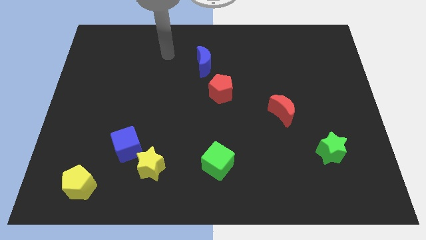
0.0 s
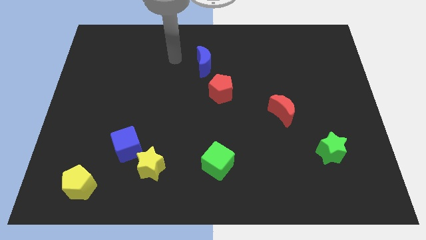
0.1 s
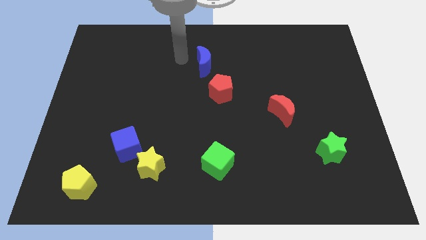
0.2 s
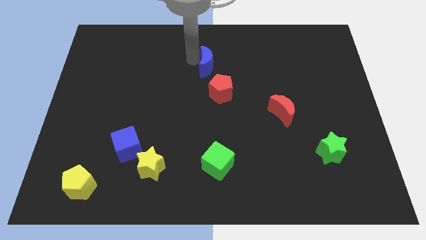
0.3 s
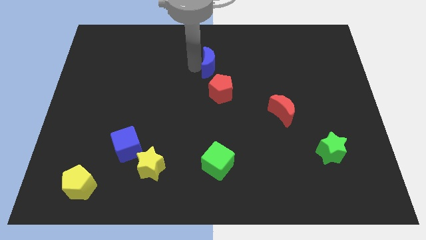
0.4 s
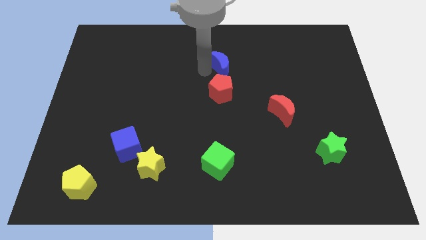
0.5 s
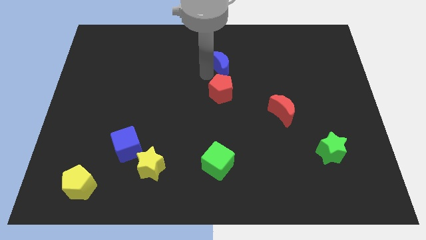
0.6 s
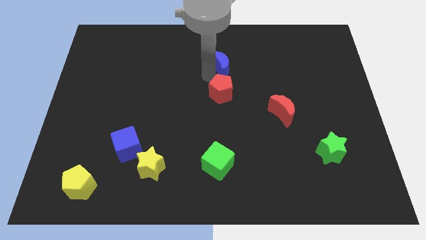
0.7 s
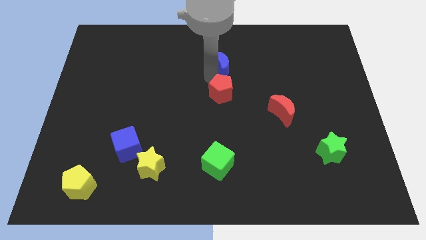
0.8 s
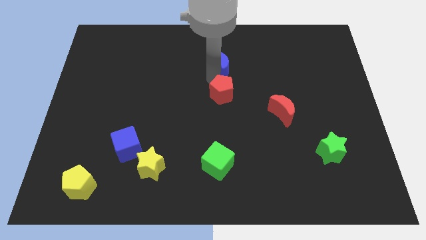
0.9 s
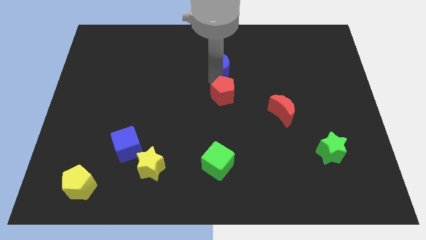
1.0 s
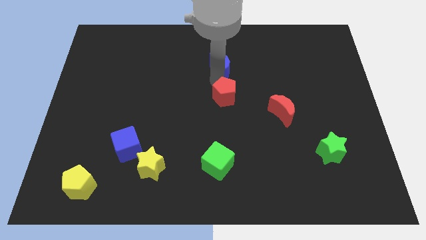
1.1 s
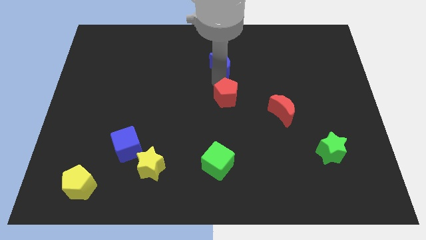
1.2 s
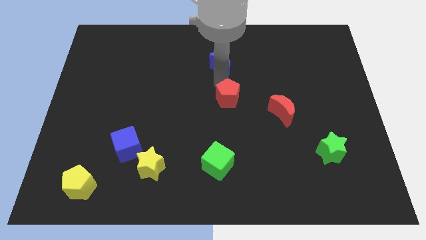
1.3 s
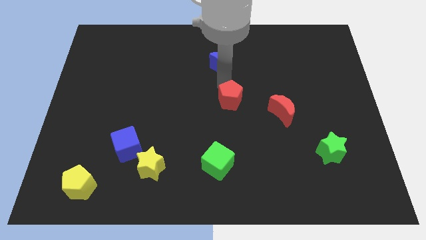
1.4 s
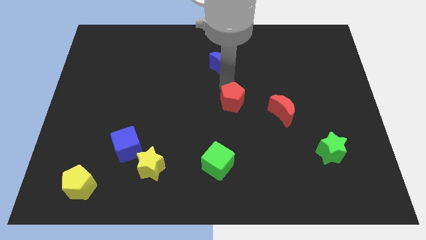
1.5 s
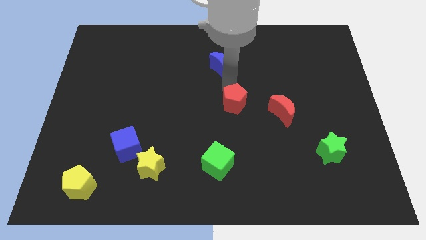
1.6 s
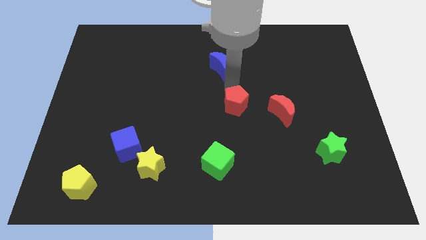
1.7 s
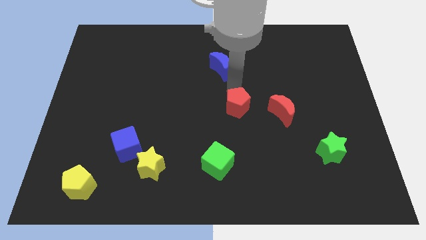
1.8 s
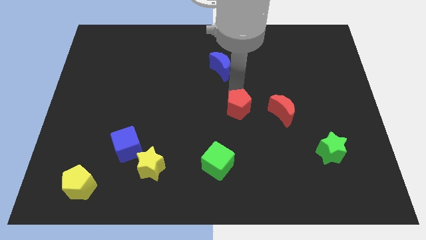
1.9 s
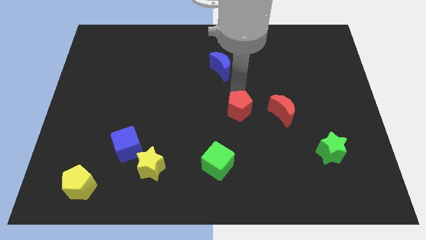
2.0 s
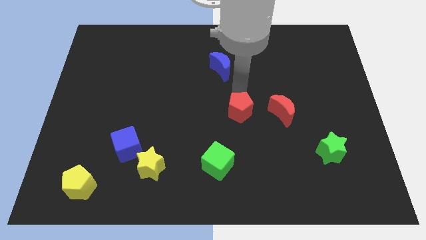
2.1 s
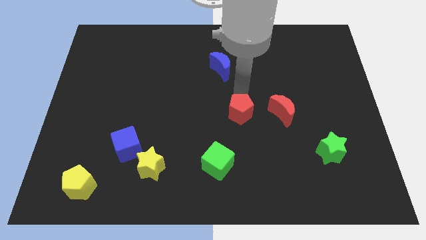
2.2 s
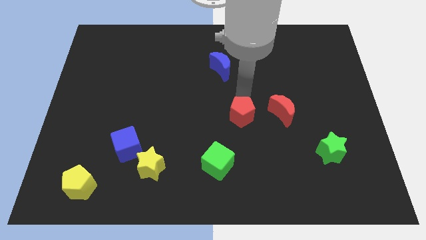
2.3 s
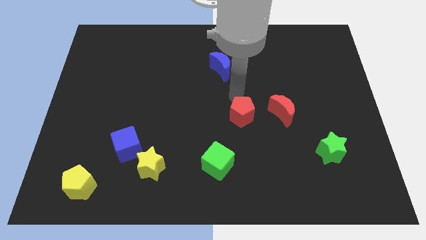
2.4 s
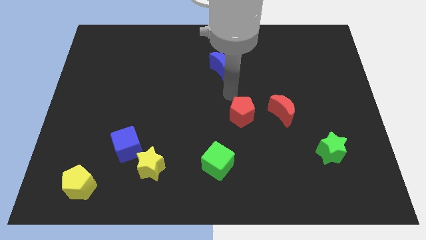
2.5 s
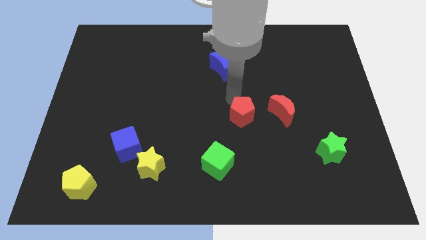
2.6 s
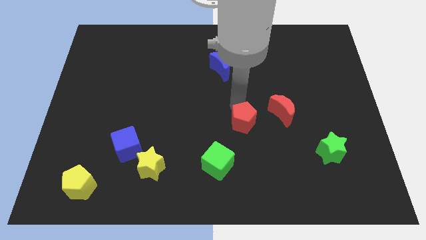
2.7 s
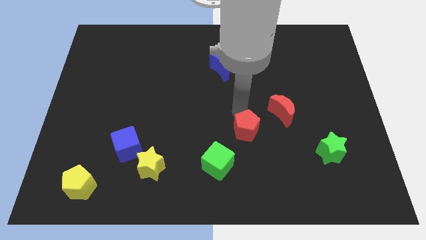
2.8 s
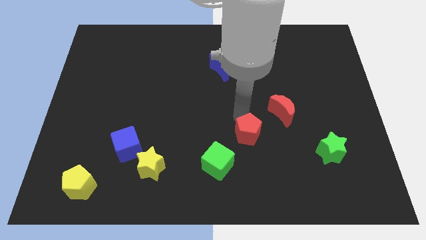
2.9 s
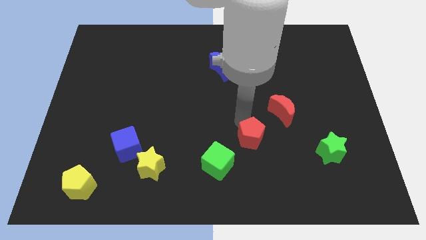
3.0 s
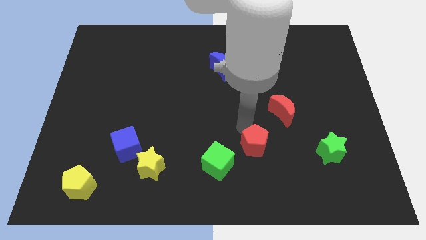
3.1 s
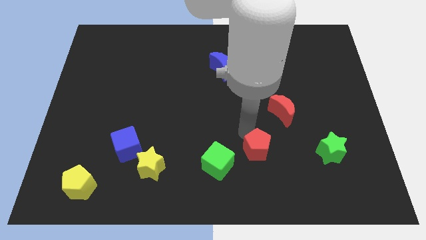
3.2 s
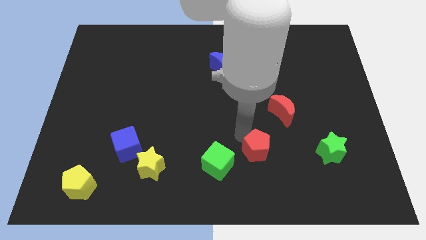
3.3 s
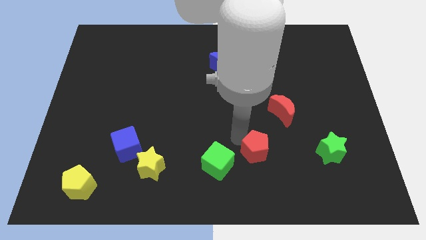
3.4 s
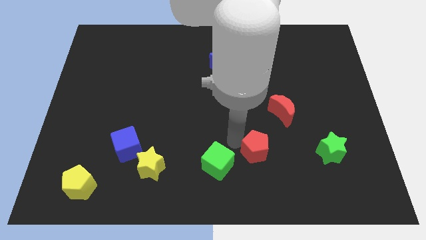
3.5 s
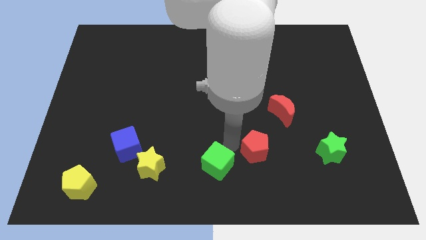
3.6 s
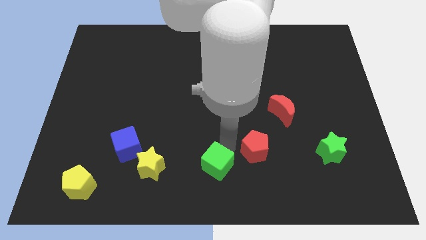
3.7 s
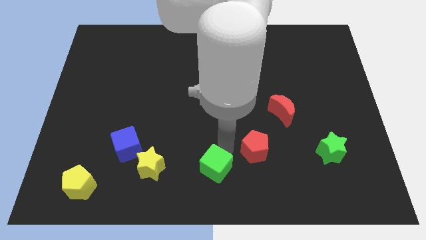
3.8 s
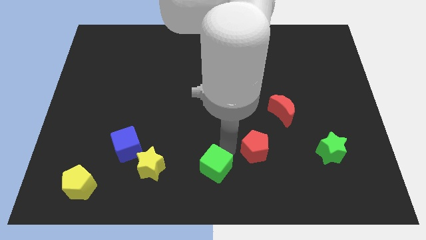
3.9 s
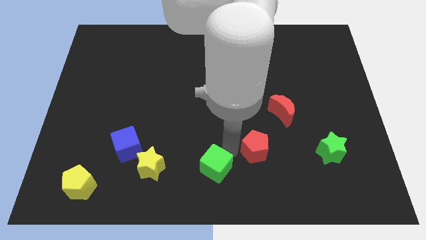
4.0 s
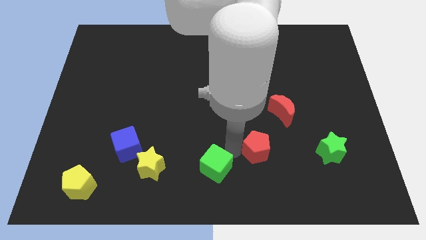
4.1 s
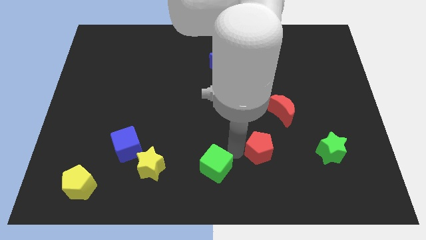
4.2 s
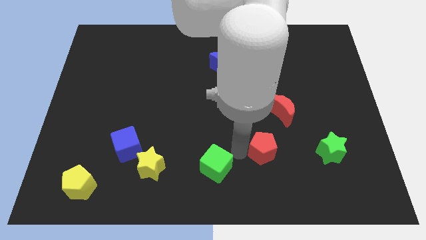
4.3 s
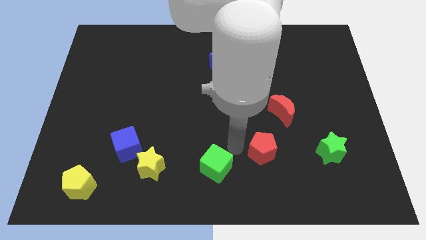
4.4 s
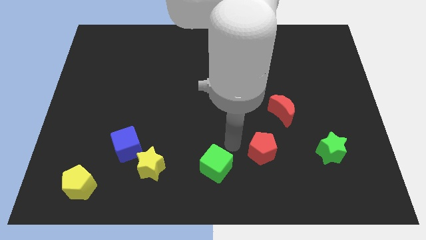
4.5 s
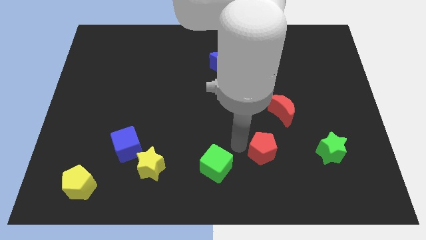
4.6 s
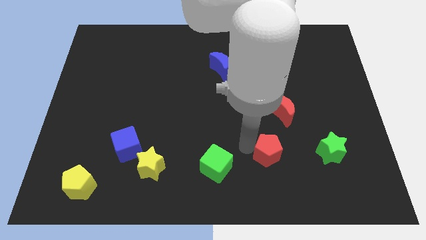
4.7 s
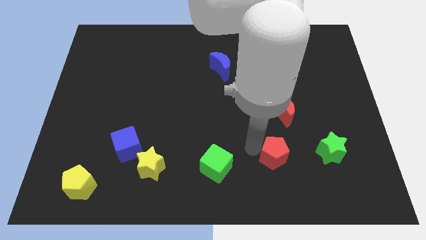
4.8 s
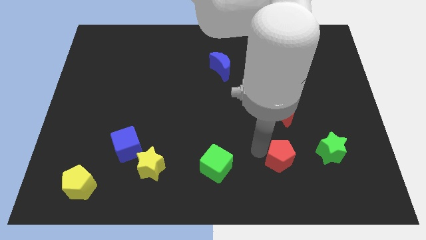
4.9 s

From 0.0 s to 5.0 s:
push the red pentagon down and right

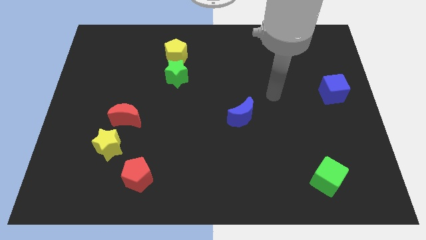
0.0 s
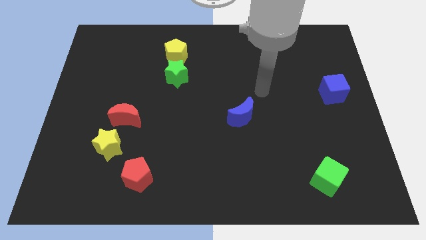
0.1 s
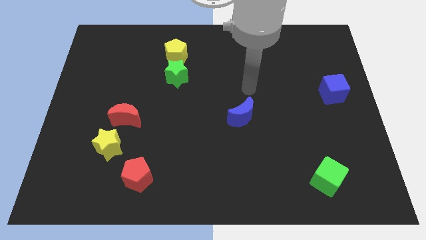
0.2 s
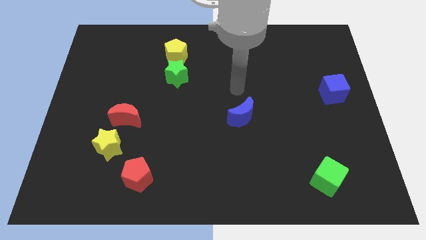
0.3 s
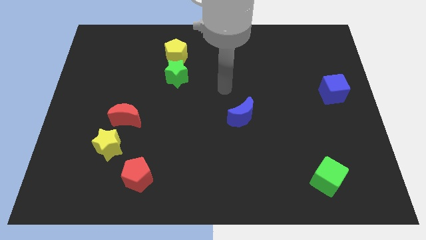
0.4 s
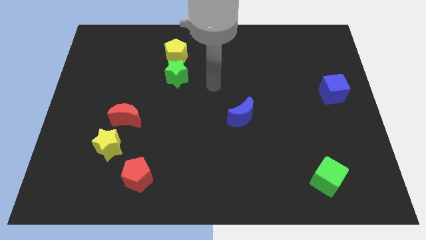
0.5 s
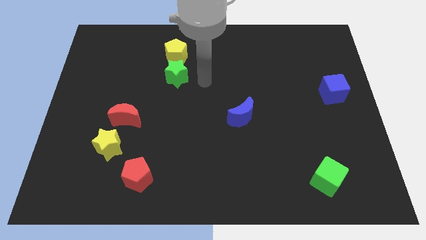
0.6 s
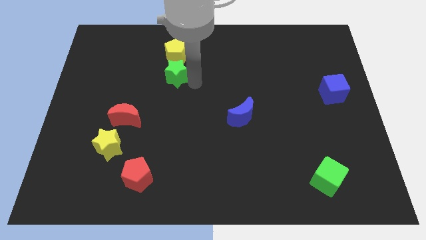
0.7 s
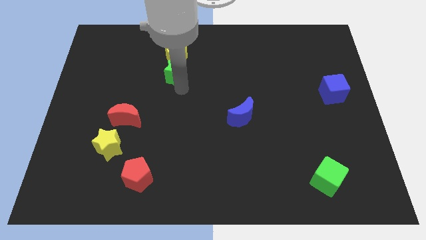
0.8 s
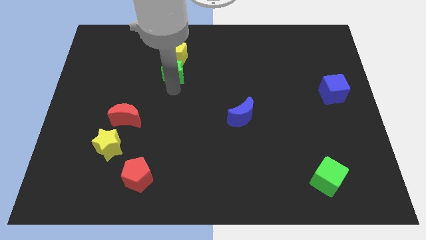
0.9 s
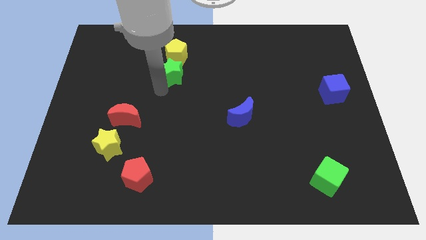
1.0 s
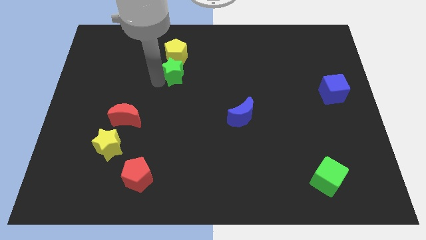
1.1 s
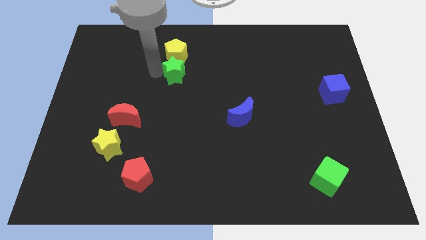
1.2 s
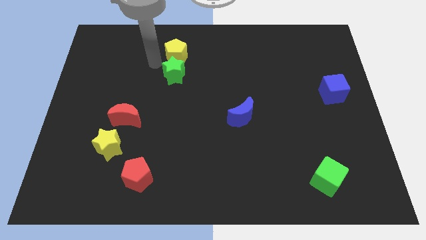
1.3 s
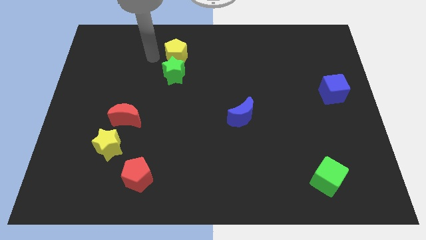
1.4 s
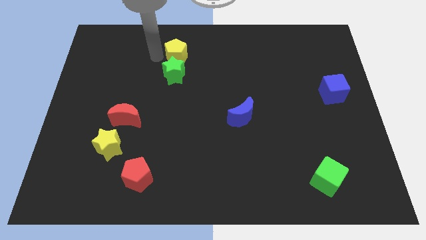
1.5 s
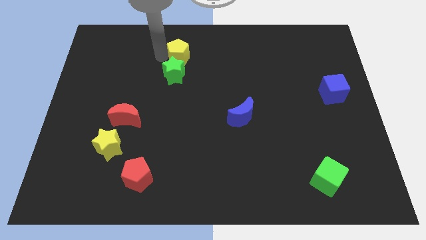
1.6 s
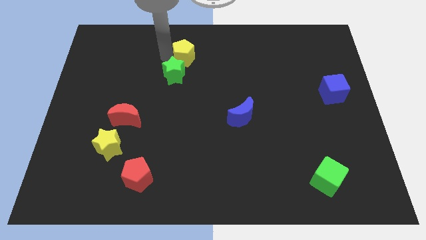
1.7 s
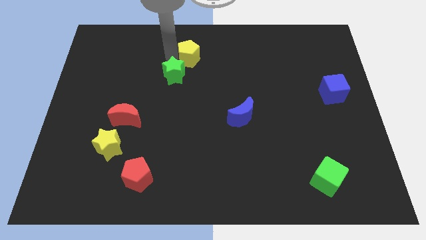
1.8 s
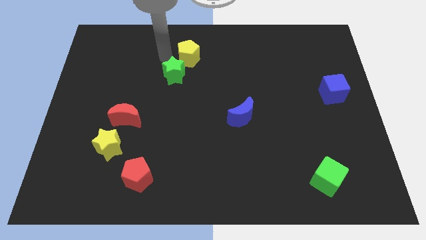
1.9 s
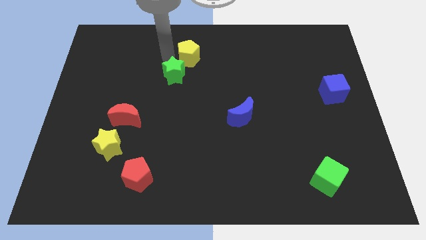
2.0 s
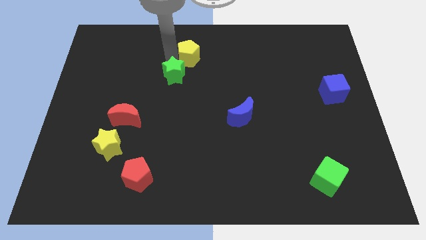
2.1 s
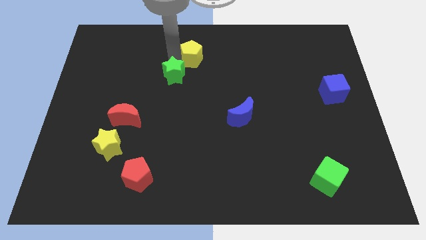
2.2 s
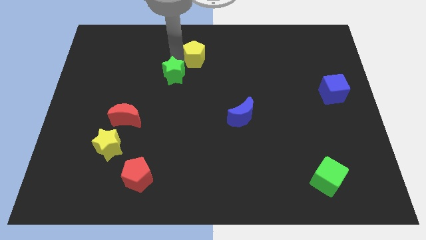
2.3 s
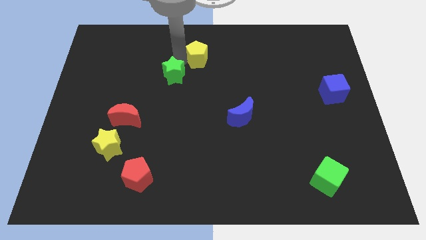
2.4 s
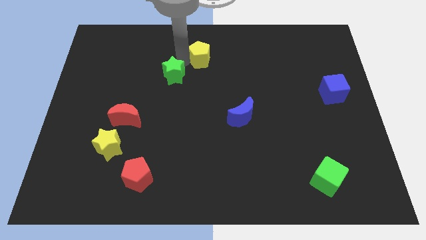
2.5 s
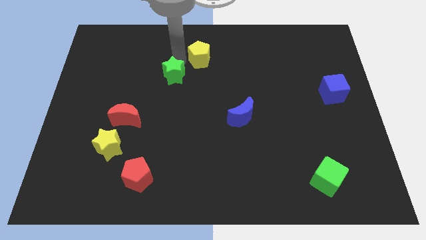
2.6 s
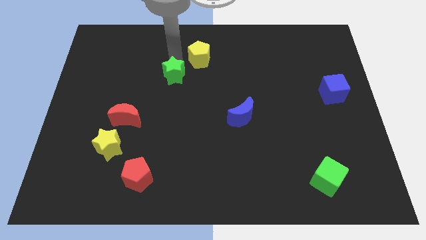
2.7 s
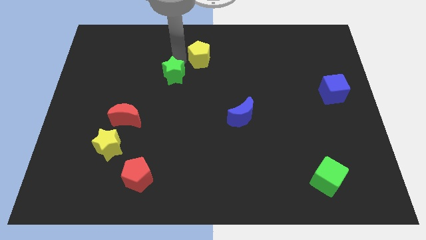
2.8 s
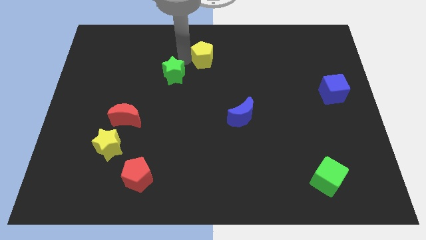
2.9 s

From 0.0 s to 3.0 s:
slightly slide the yellow pentagon right

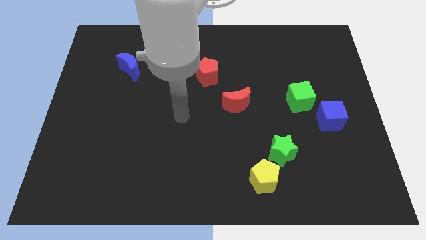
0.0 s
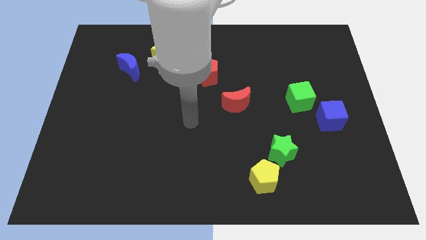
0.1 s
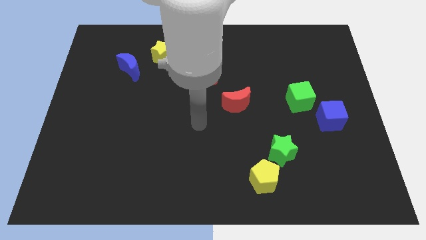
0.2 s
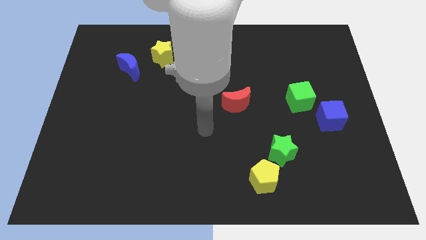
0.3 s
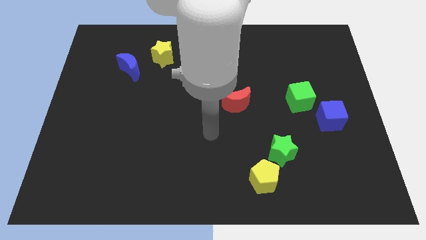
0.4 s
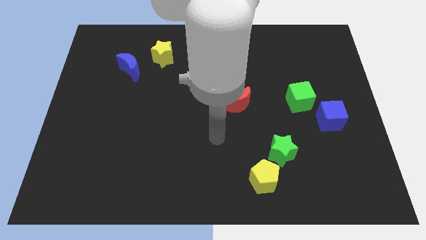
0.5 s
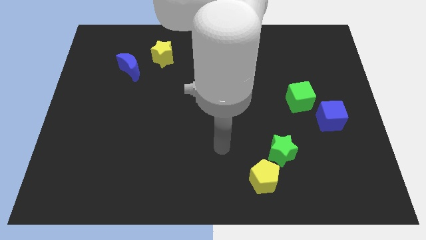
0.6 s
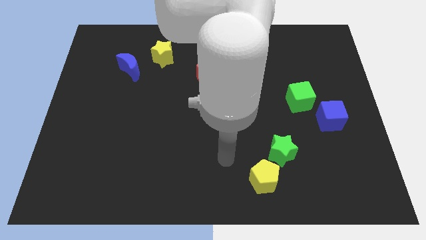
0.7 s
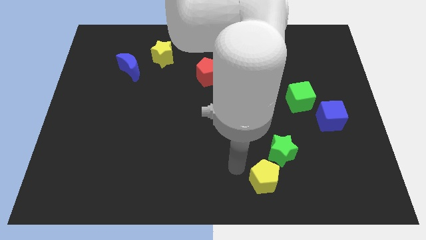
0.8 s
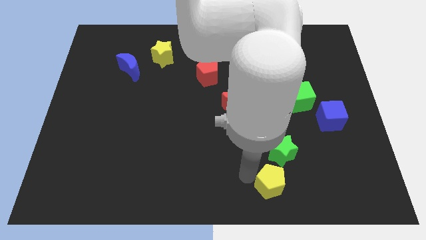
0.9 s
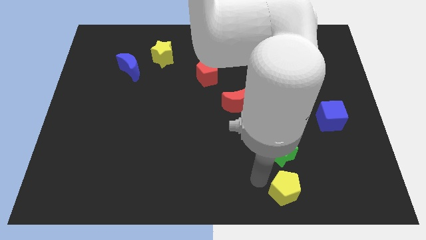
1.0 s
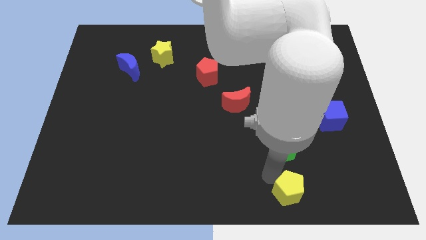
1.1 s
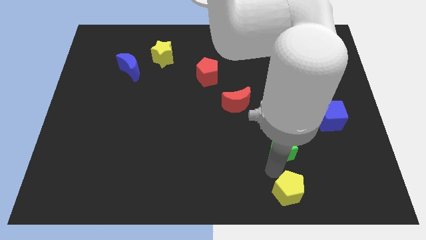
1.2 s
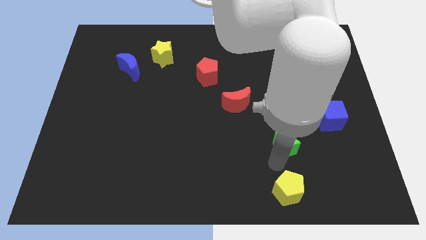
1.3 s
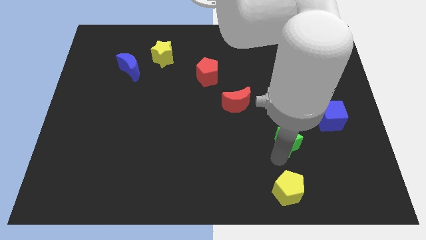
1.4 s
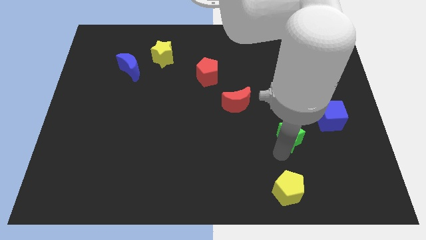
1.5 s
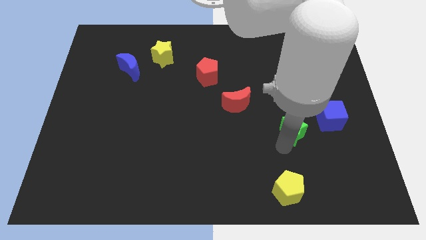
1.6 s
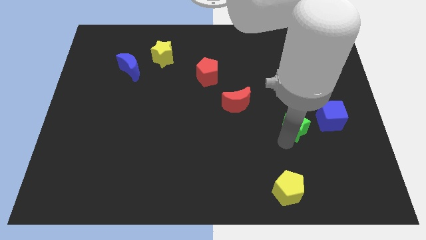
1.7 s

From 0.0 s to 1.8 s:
push the green star a little upwards and right diagonally
